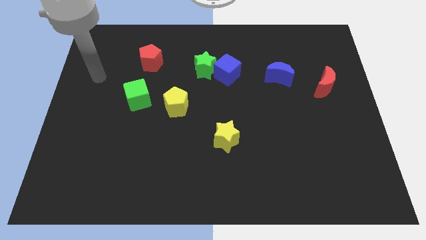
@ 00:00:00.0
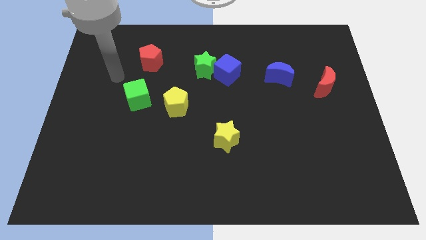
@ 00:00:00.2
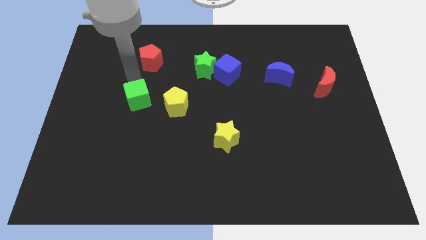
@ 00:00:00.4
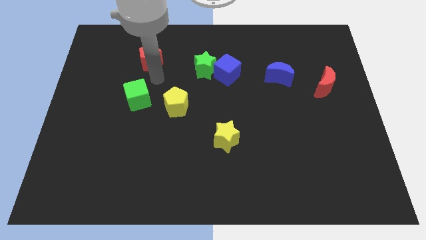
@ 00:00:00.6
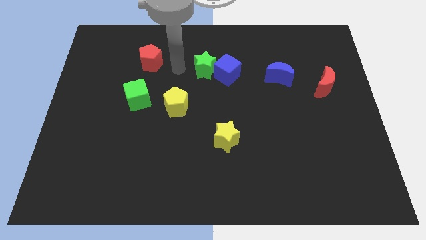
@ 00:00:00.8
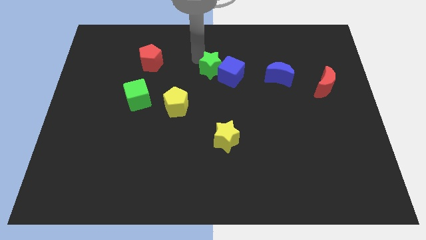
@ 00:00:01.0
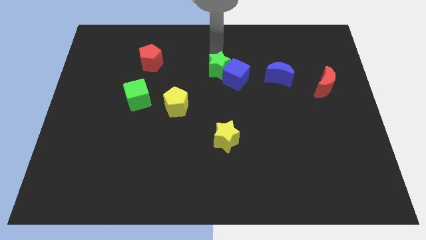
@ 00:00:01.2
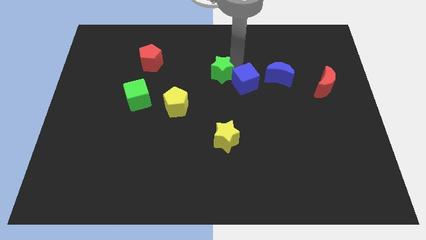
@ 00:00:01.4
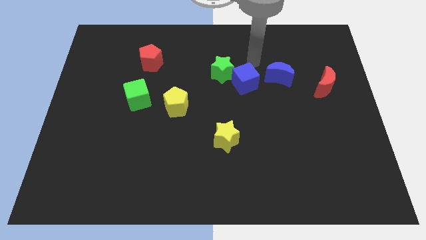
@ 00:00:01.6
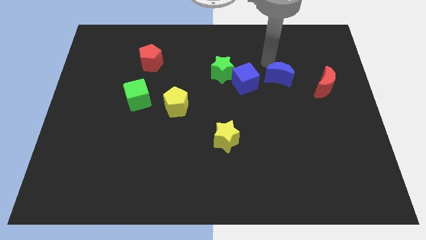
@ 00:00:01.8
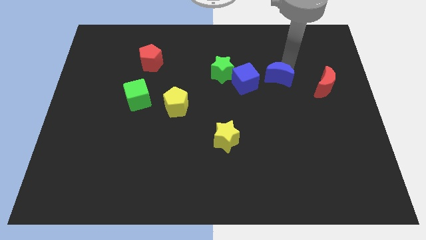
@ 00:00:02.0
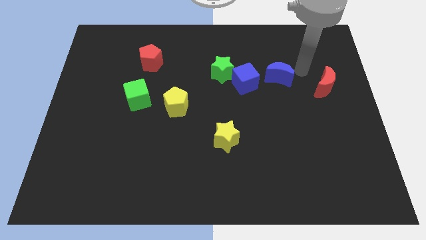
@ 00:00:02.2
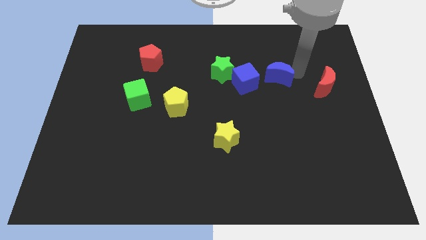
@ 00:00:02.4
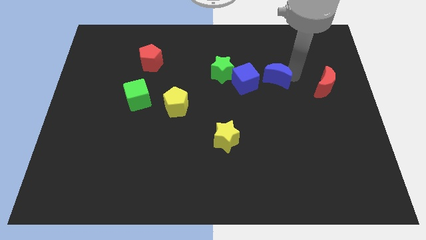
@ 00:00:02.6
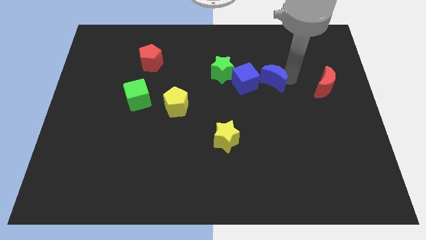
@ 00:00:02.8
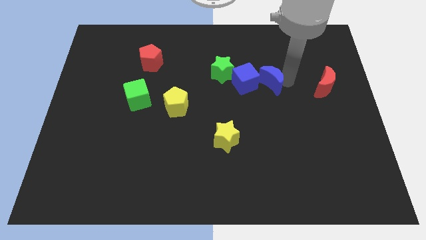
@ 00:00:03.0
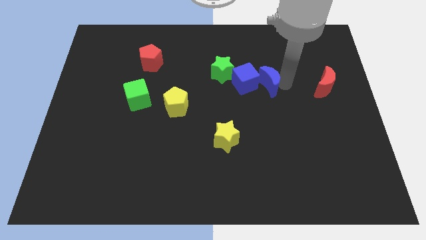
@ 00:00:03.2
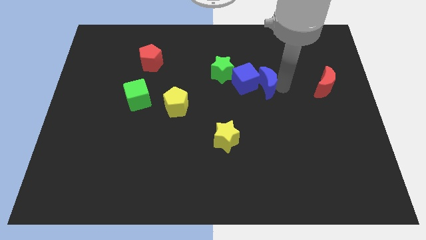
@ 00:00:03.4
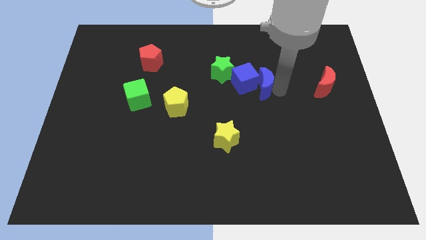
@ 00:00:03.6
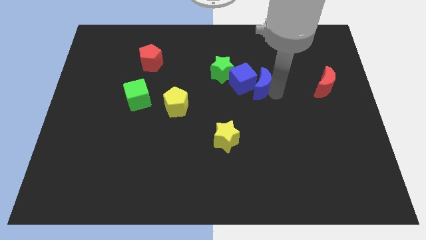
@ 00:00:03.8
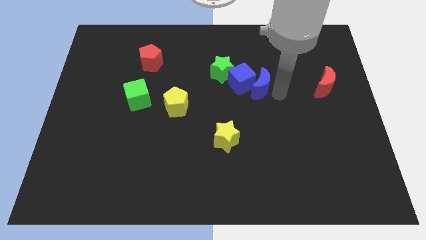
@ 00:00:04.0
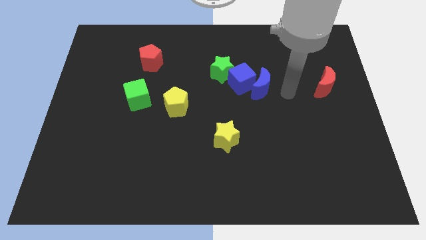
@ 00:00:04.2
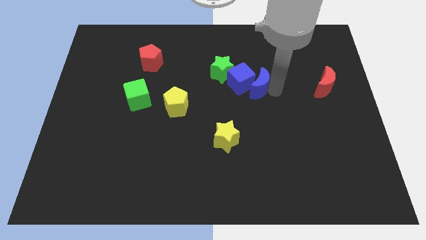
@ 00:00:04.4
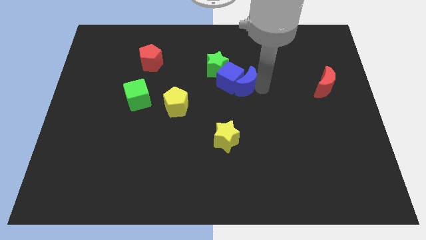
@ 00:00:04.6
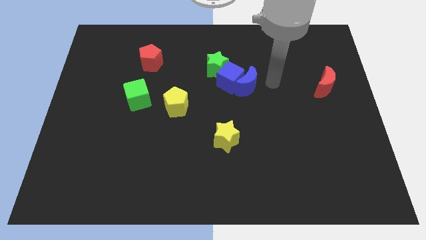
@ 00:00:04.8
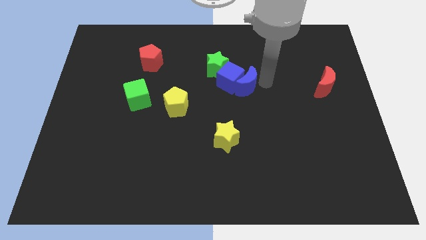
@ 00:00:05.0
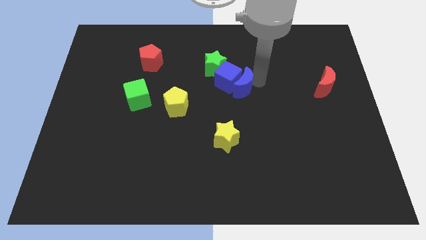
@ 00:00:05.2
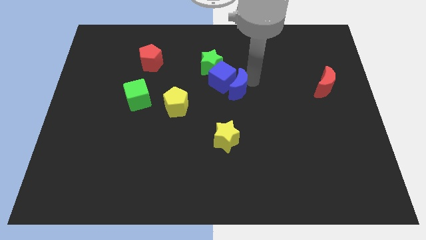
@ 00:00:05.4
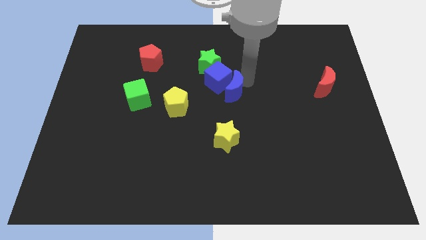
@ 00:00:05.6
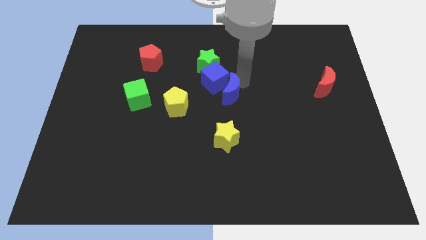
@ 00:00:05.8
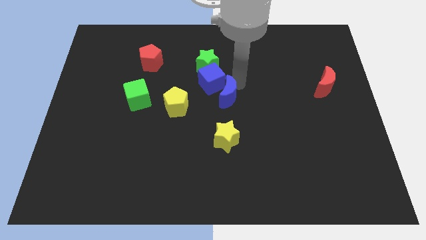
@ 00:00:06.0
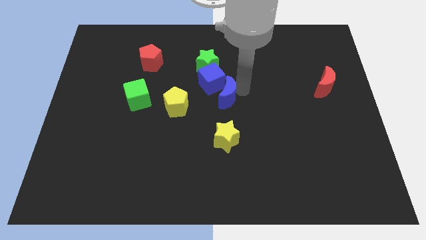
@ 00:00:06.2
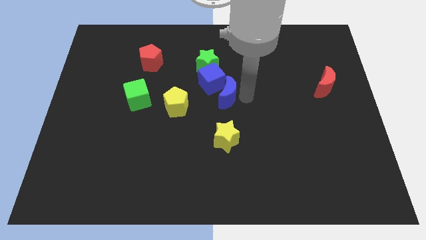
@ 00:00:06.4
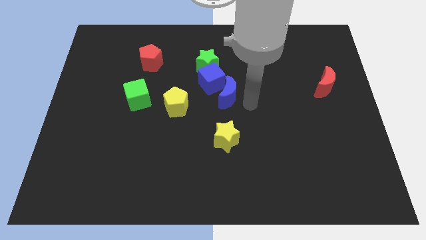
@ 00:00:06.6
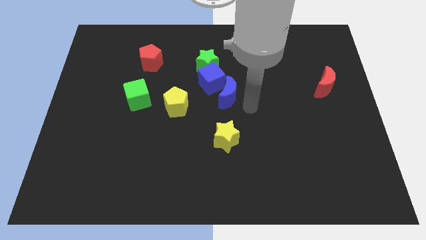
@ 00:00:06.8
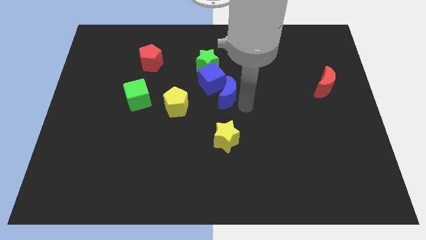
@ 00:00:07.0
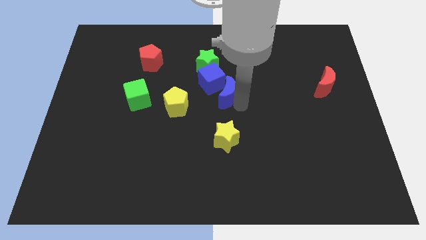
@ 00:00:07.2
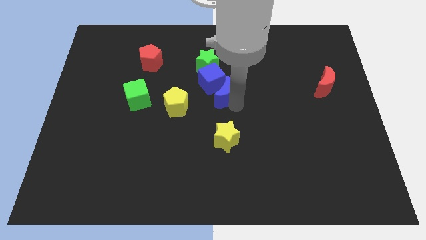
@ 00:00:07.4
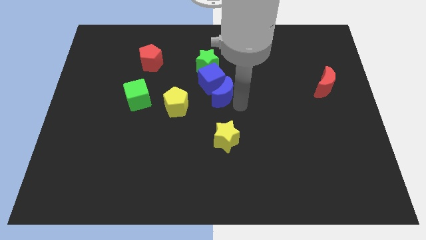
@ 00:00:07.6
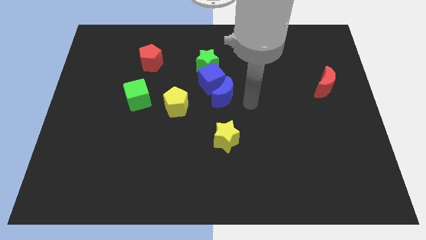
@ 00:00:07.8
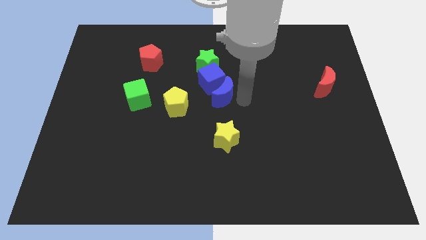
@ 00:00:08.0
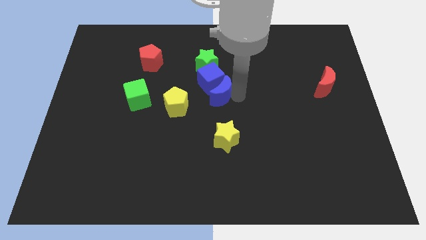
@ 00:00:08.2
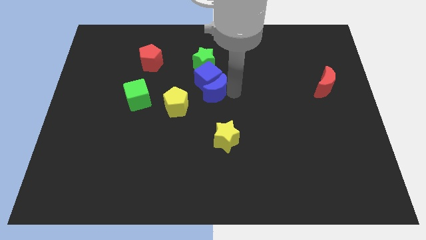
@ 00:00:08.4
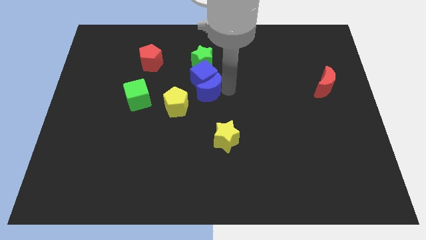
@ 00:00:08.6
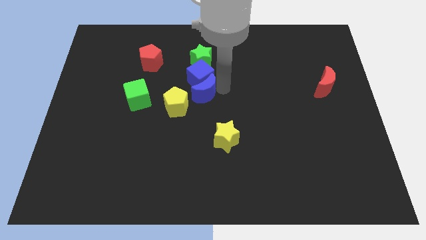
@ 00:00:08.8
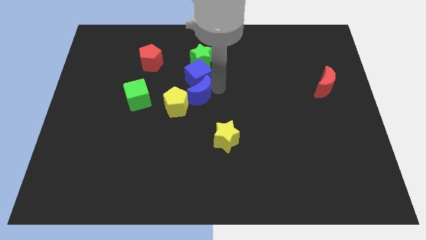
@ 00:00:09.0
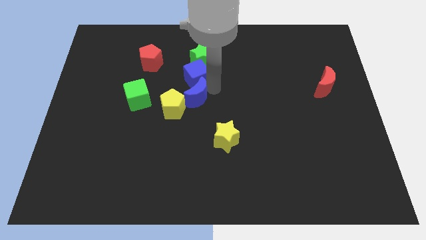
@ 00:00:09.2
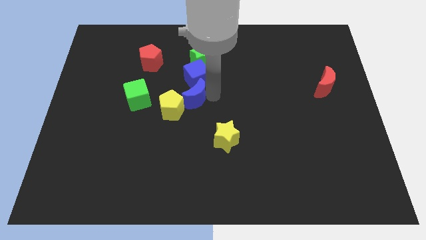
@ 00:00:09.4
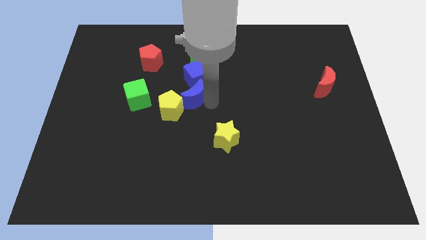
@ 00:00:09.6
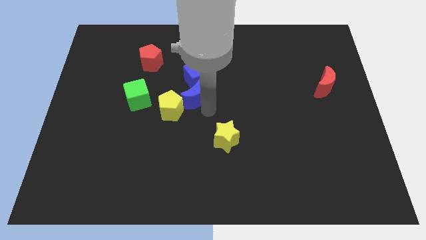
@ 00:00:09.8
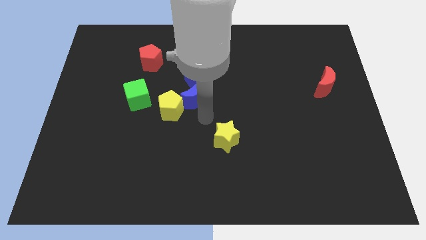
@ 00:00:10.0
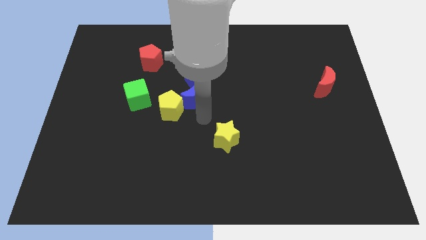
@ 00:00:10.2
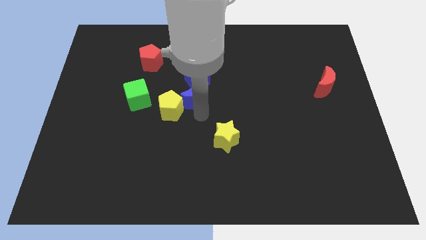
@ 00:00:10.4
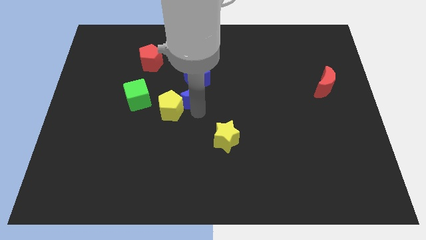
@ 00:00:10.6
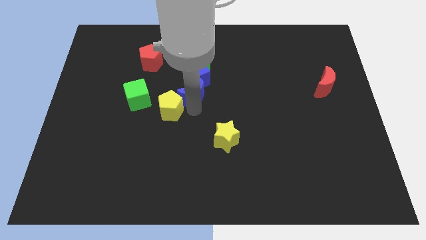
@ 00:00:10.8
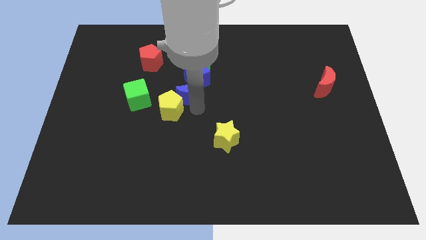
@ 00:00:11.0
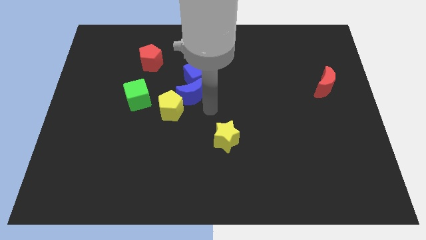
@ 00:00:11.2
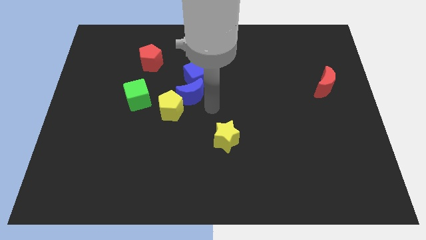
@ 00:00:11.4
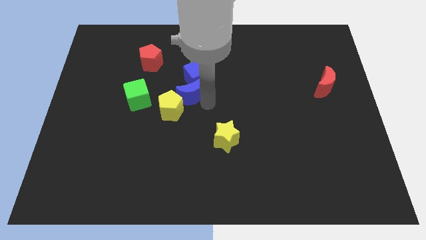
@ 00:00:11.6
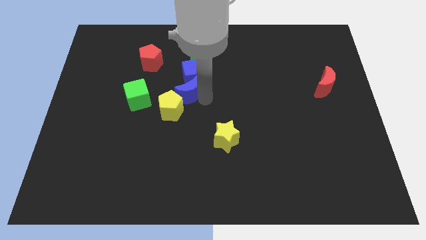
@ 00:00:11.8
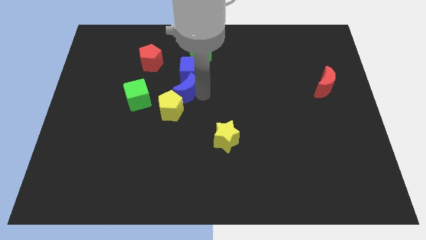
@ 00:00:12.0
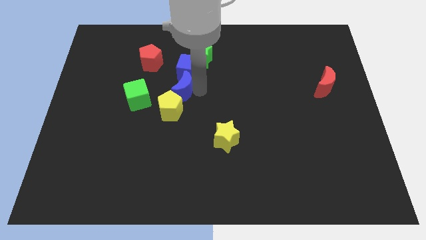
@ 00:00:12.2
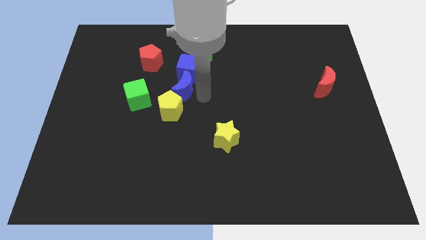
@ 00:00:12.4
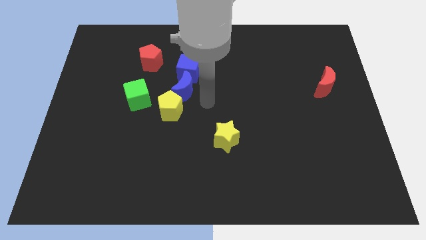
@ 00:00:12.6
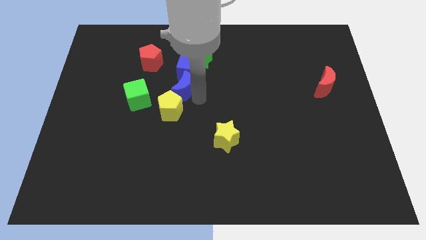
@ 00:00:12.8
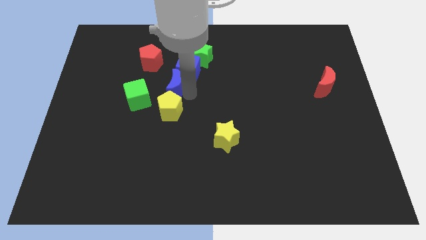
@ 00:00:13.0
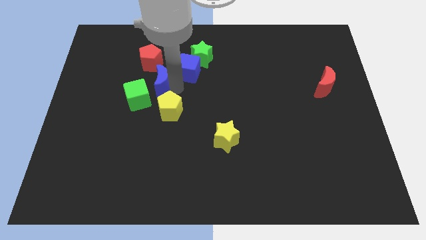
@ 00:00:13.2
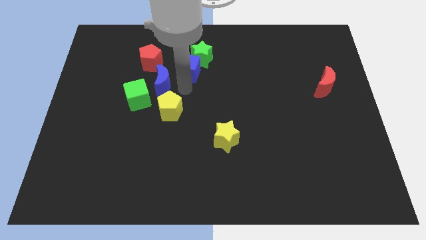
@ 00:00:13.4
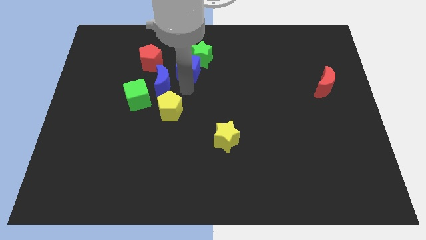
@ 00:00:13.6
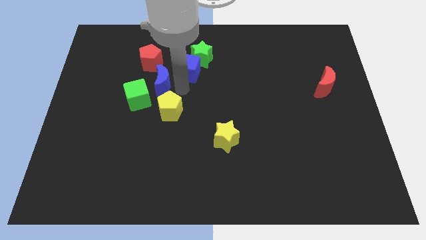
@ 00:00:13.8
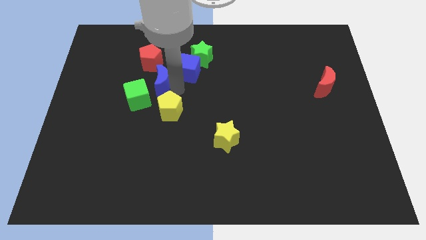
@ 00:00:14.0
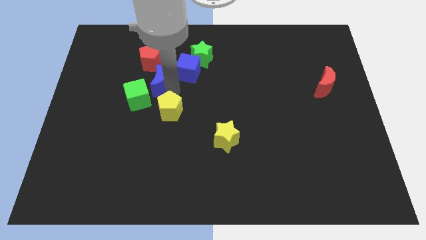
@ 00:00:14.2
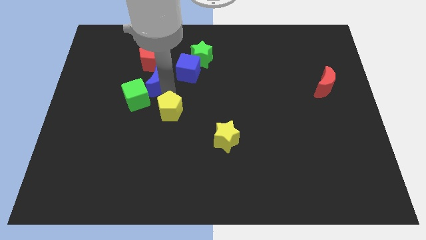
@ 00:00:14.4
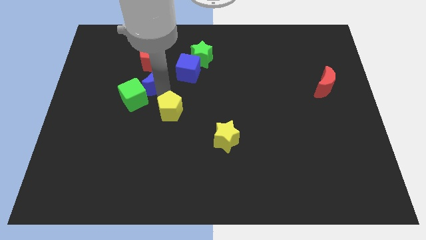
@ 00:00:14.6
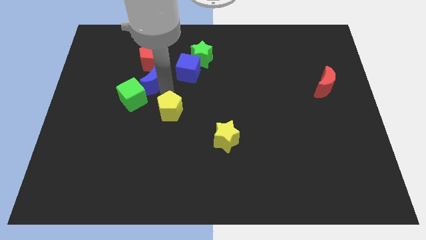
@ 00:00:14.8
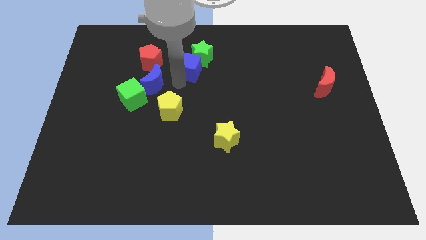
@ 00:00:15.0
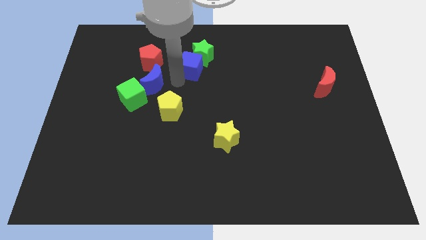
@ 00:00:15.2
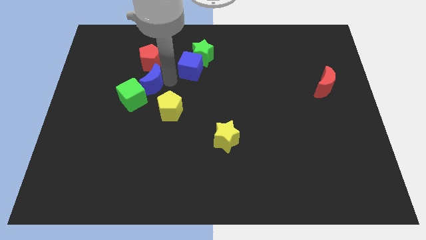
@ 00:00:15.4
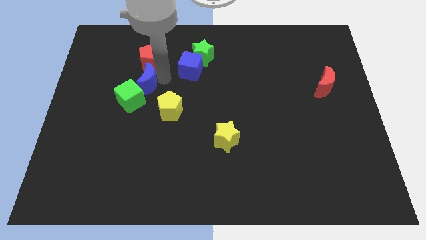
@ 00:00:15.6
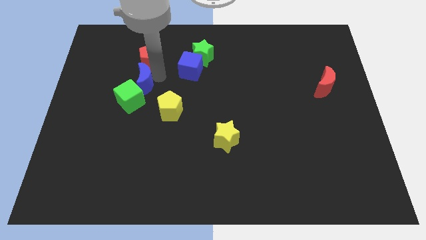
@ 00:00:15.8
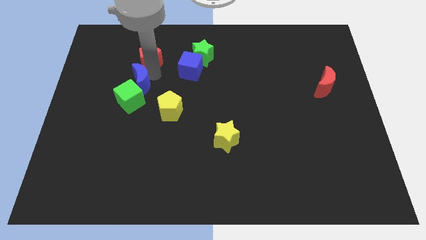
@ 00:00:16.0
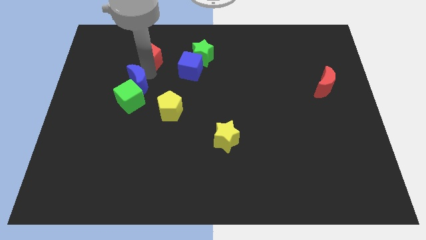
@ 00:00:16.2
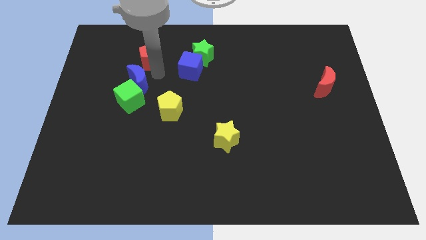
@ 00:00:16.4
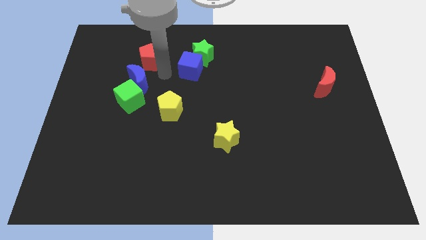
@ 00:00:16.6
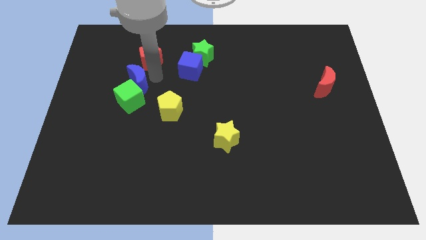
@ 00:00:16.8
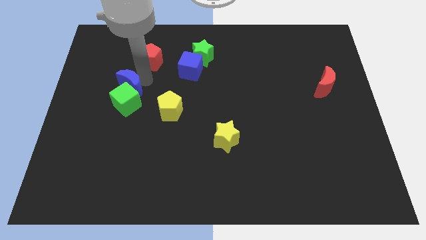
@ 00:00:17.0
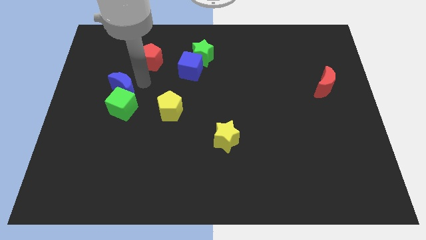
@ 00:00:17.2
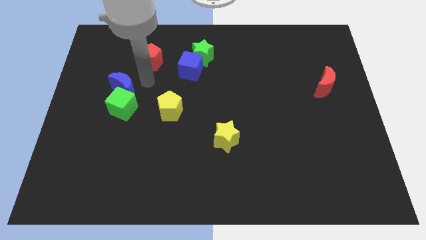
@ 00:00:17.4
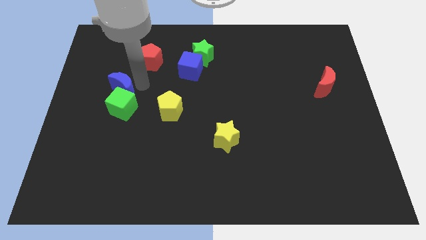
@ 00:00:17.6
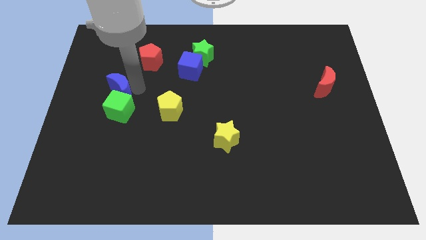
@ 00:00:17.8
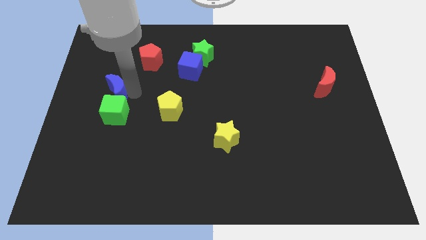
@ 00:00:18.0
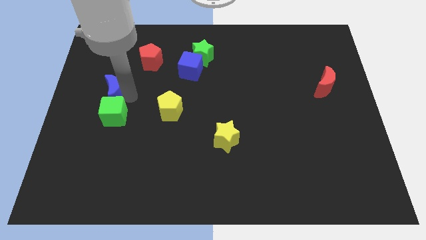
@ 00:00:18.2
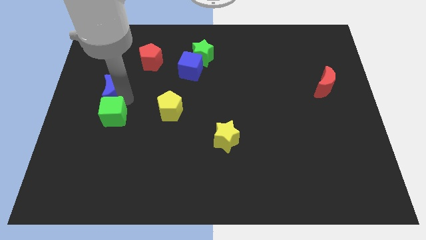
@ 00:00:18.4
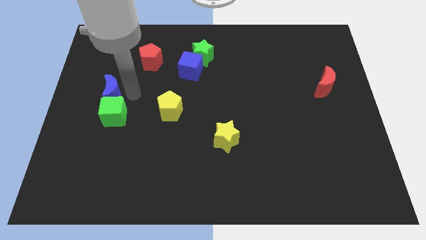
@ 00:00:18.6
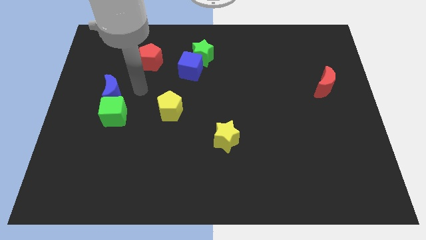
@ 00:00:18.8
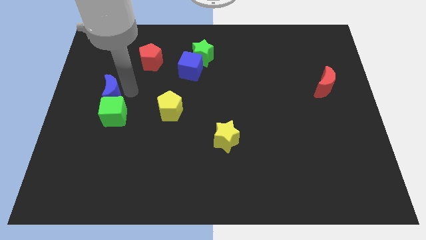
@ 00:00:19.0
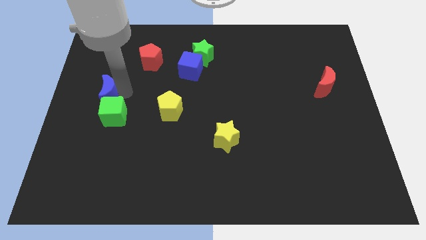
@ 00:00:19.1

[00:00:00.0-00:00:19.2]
push the blue moon to the left side of the board
